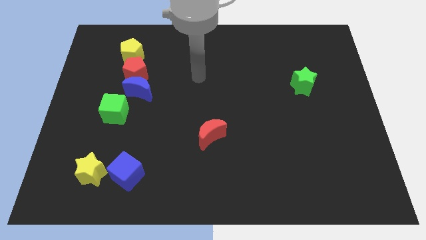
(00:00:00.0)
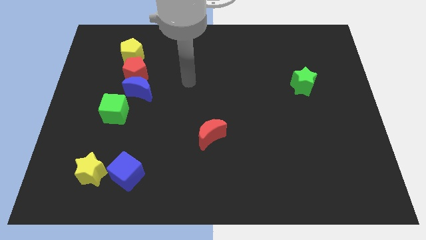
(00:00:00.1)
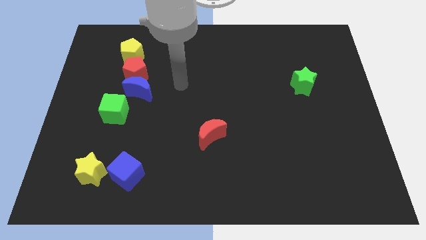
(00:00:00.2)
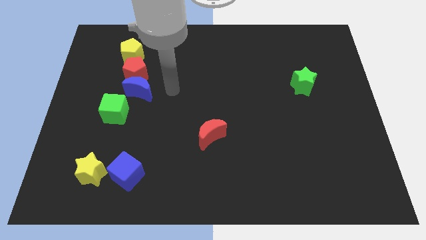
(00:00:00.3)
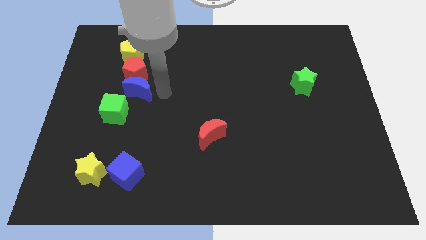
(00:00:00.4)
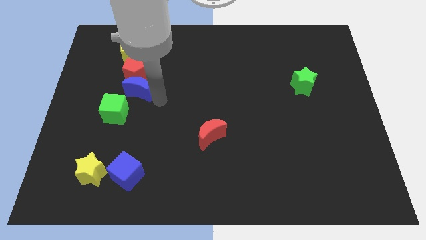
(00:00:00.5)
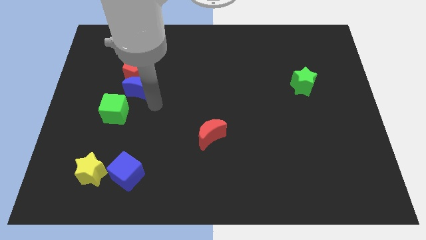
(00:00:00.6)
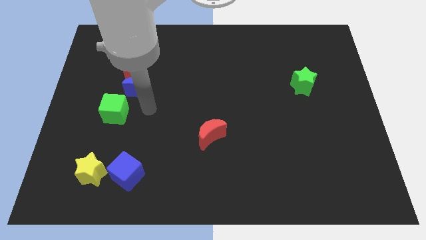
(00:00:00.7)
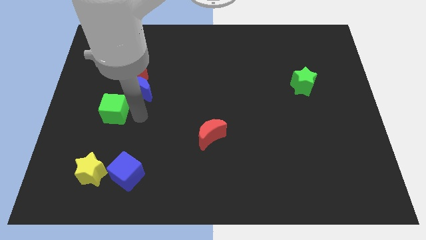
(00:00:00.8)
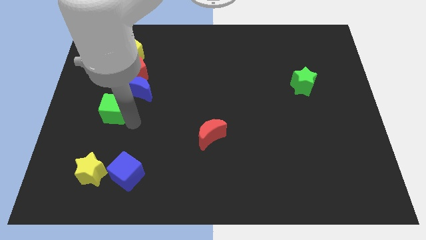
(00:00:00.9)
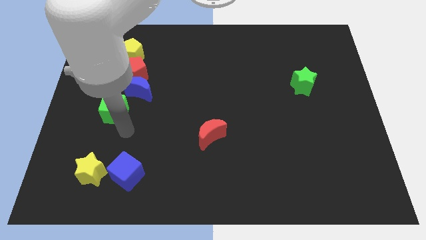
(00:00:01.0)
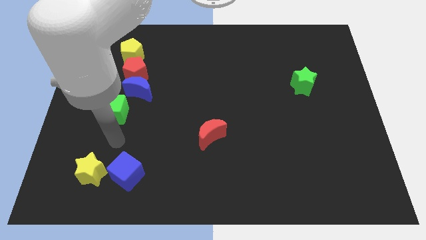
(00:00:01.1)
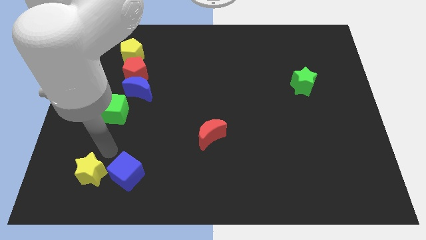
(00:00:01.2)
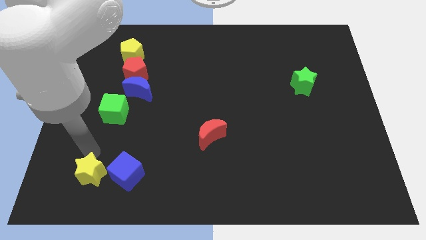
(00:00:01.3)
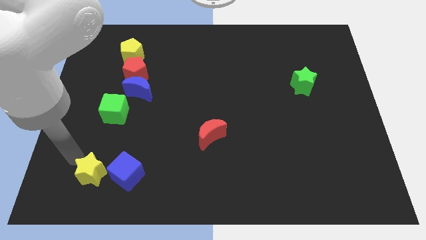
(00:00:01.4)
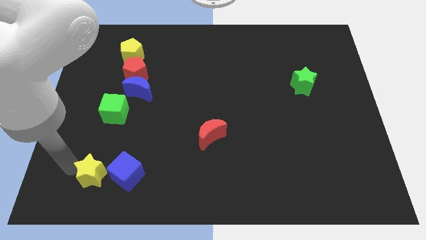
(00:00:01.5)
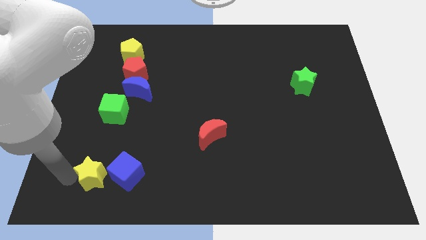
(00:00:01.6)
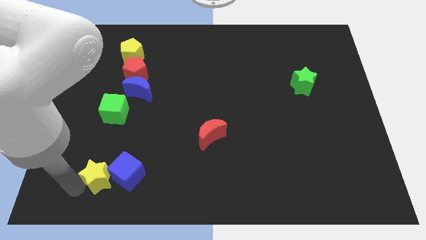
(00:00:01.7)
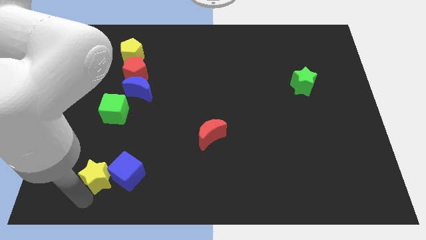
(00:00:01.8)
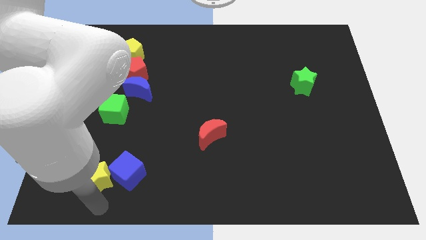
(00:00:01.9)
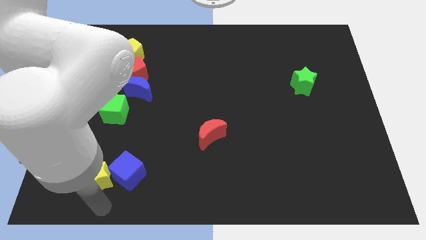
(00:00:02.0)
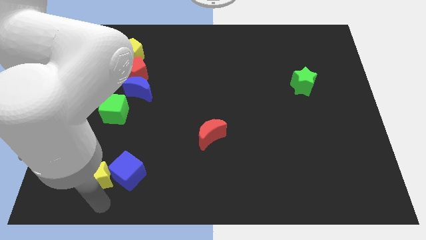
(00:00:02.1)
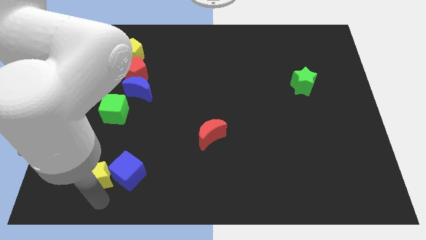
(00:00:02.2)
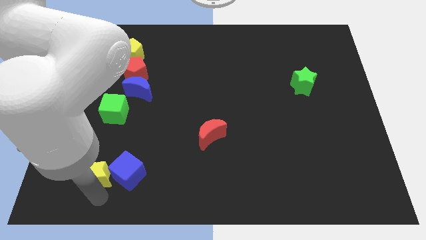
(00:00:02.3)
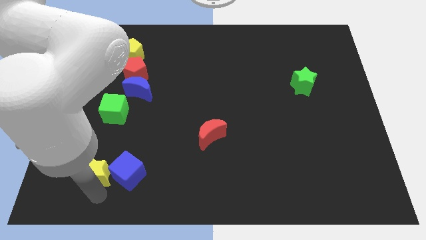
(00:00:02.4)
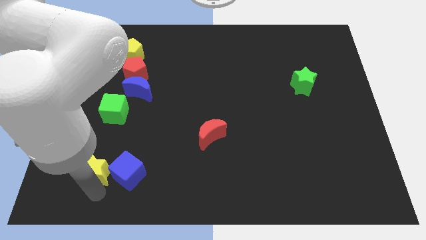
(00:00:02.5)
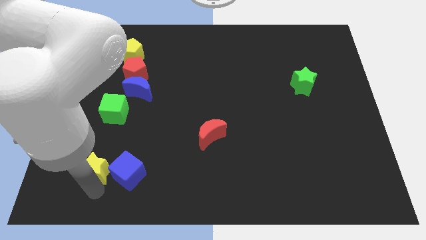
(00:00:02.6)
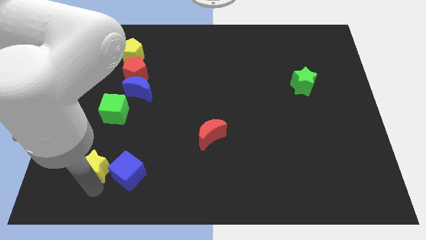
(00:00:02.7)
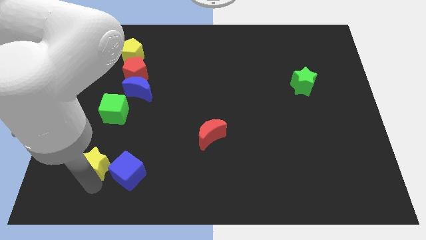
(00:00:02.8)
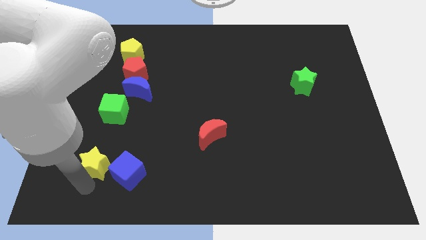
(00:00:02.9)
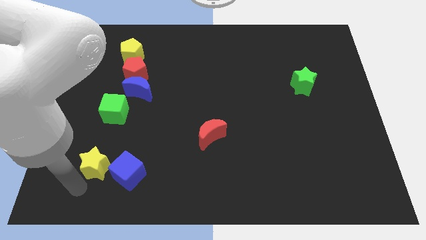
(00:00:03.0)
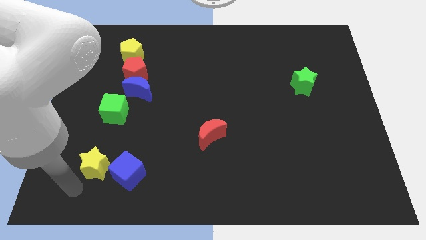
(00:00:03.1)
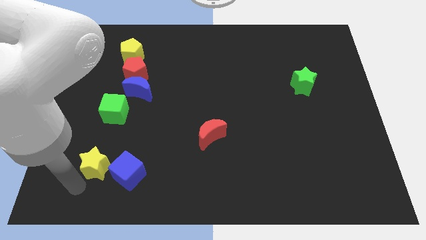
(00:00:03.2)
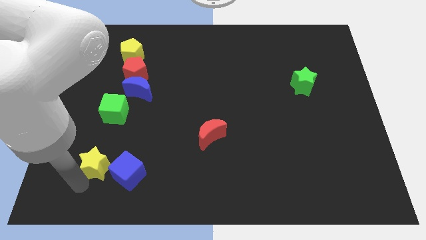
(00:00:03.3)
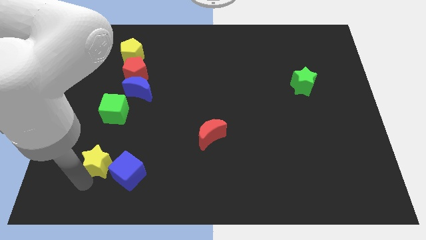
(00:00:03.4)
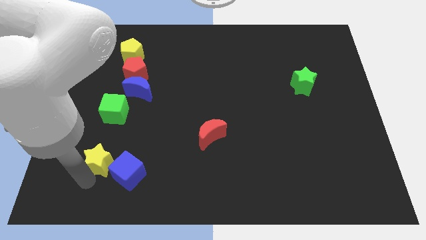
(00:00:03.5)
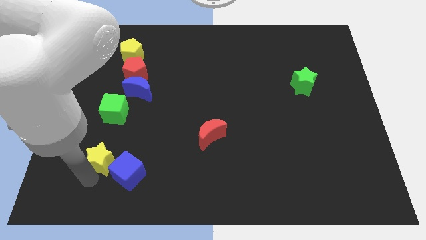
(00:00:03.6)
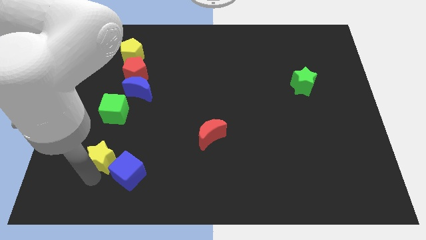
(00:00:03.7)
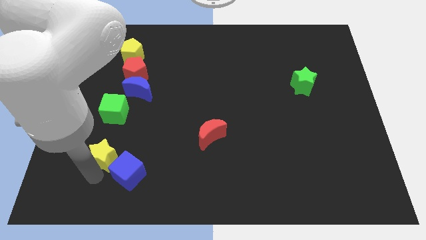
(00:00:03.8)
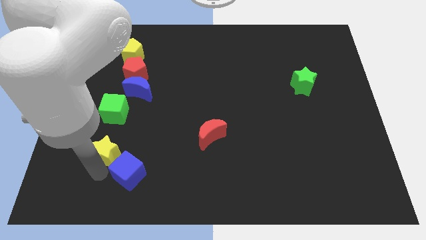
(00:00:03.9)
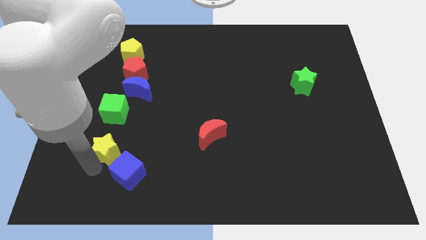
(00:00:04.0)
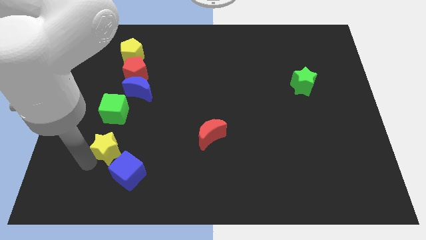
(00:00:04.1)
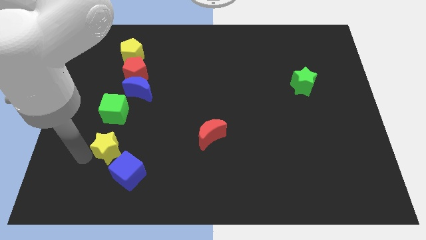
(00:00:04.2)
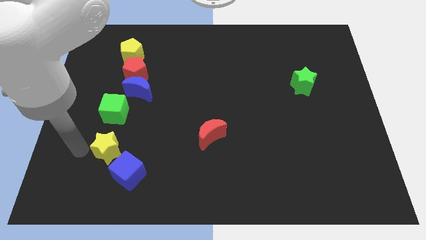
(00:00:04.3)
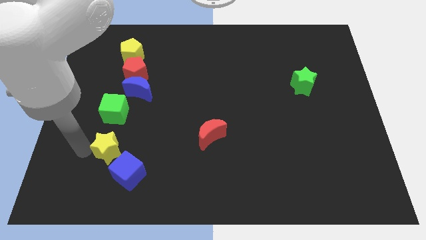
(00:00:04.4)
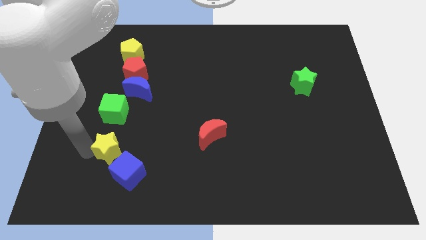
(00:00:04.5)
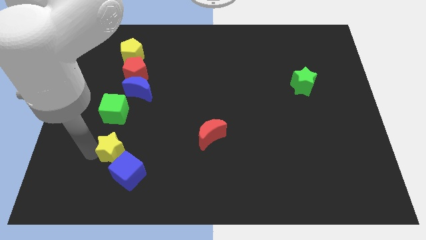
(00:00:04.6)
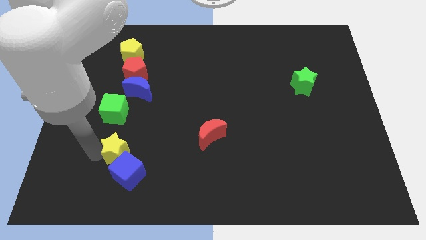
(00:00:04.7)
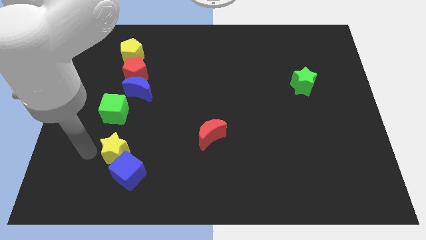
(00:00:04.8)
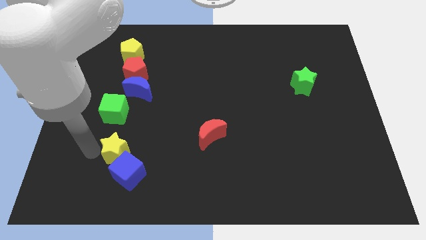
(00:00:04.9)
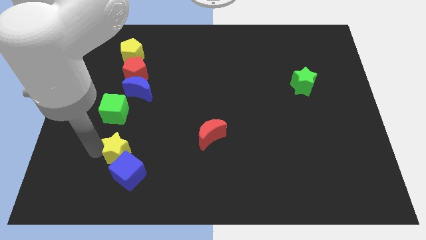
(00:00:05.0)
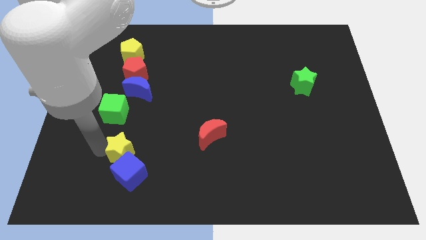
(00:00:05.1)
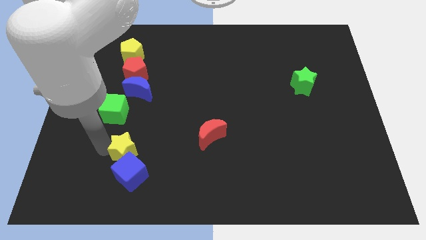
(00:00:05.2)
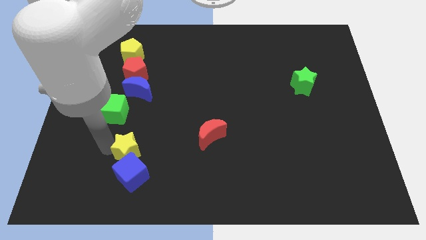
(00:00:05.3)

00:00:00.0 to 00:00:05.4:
put the yellow star diagonally up and to the right of the blue cube

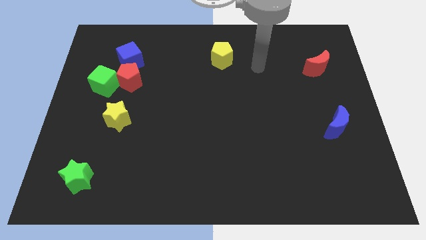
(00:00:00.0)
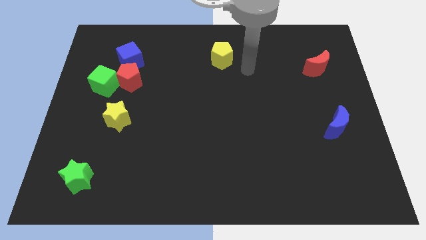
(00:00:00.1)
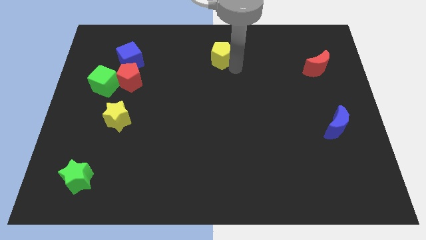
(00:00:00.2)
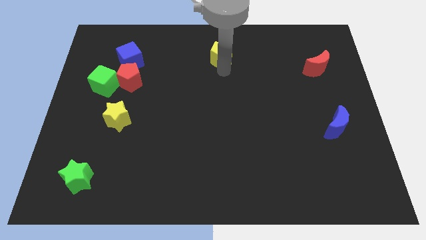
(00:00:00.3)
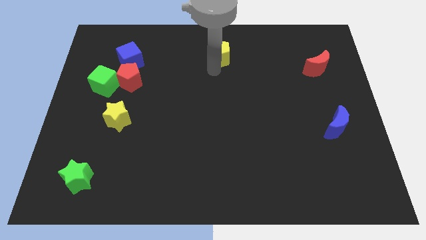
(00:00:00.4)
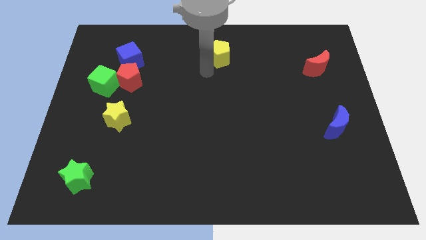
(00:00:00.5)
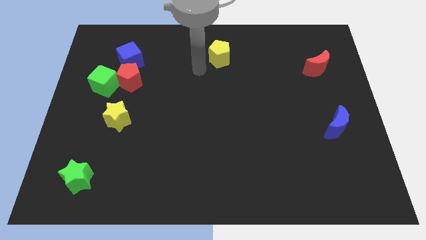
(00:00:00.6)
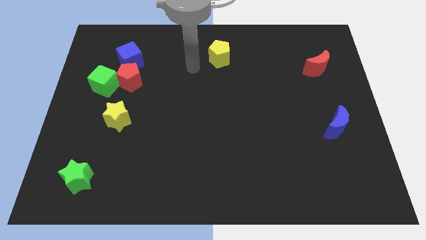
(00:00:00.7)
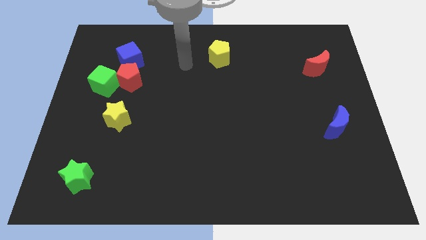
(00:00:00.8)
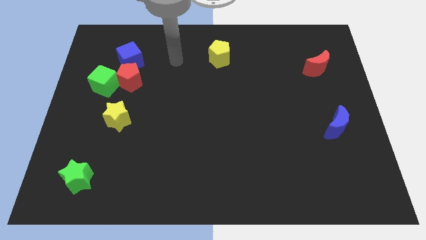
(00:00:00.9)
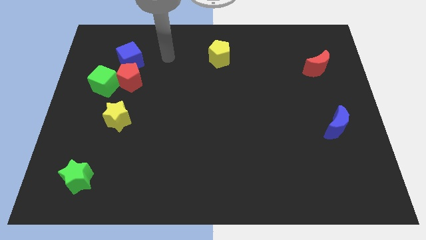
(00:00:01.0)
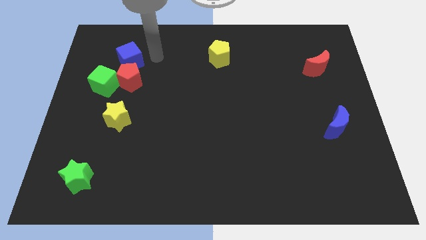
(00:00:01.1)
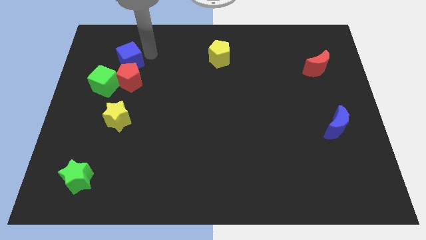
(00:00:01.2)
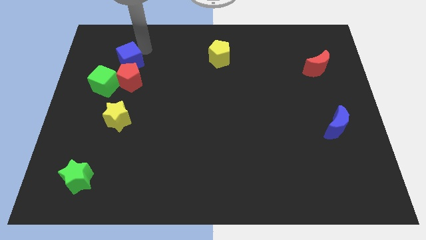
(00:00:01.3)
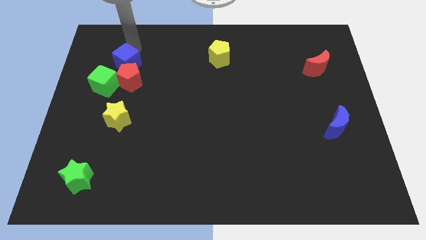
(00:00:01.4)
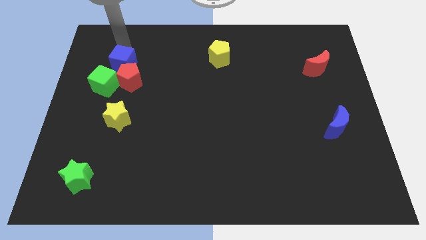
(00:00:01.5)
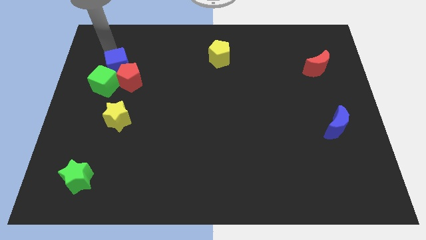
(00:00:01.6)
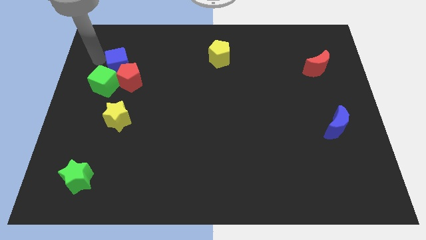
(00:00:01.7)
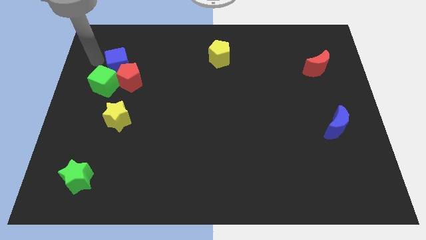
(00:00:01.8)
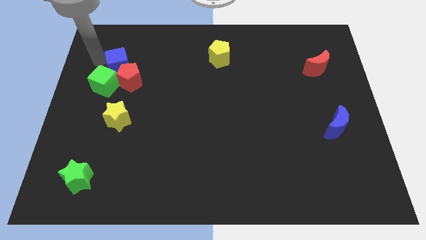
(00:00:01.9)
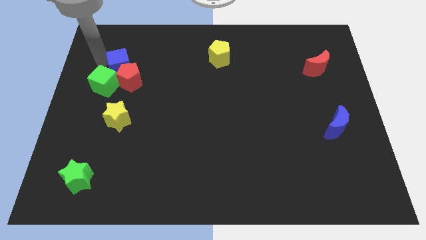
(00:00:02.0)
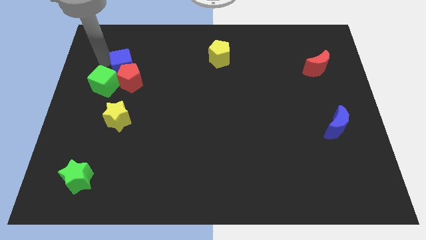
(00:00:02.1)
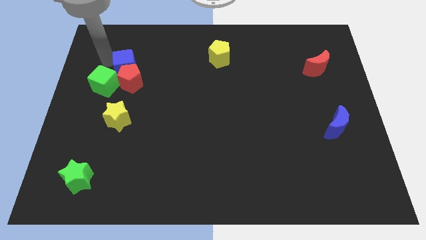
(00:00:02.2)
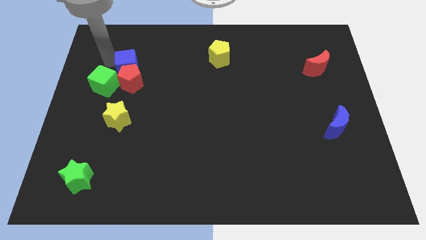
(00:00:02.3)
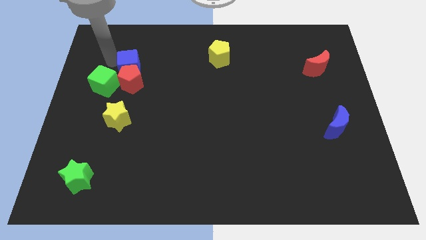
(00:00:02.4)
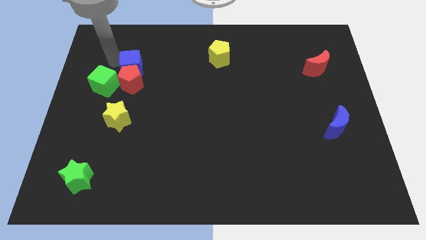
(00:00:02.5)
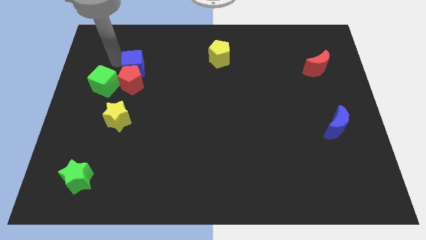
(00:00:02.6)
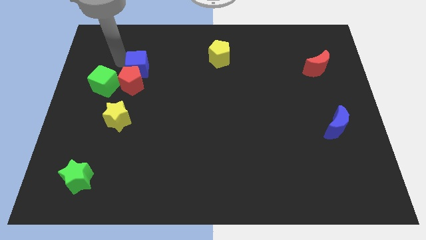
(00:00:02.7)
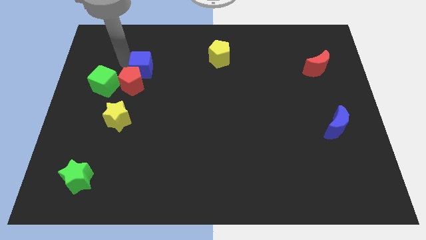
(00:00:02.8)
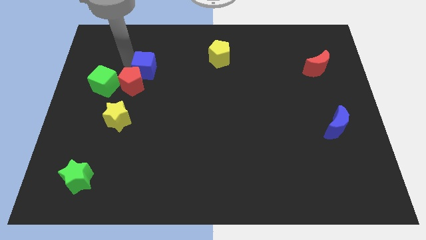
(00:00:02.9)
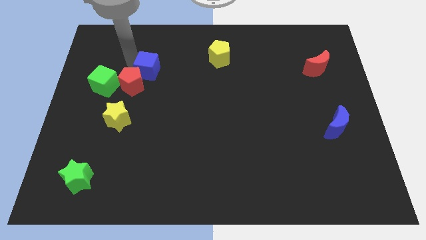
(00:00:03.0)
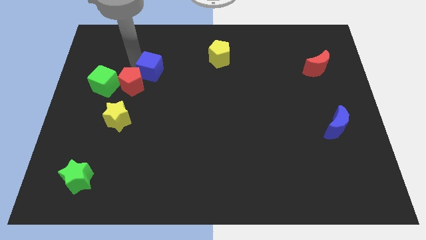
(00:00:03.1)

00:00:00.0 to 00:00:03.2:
put the blue cube just right of the red pentagon
